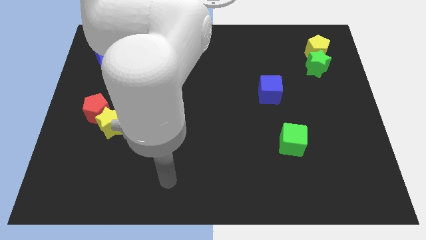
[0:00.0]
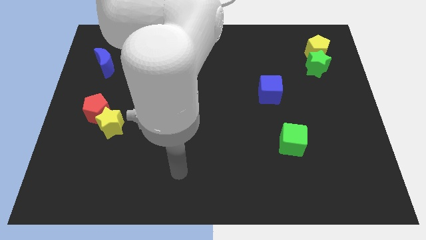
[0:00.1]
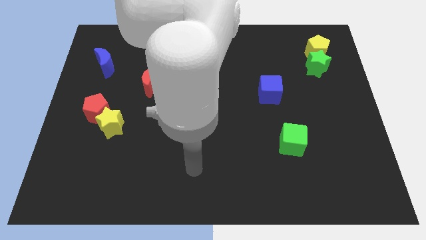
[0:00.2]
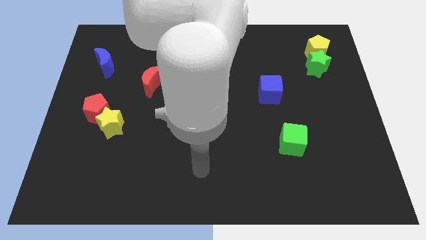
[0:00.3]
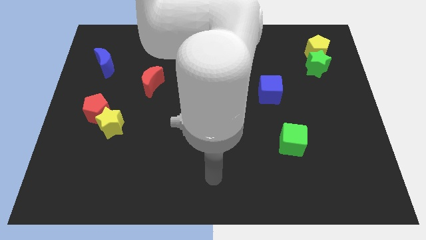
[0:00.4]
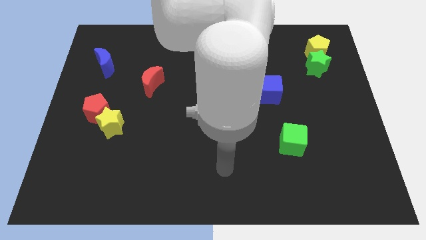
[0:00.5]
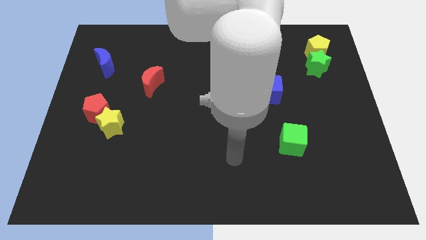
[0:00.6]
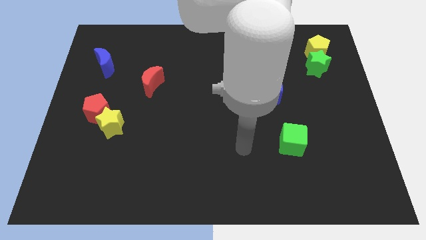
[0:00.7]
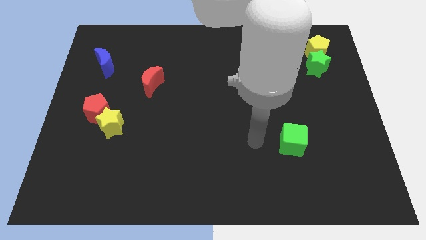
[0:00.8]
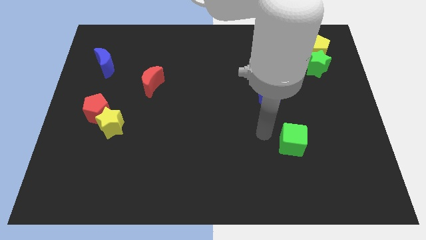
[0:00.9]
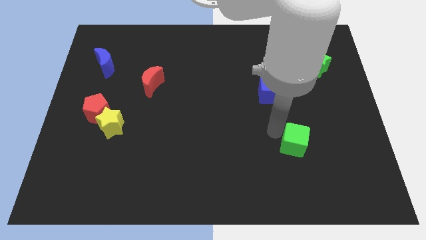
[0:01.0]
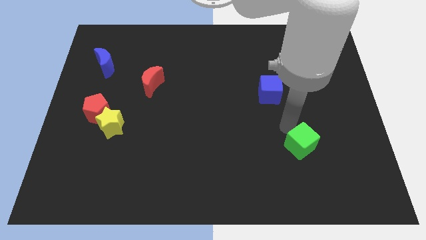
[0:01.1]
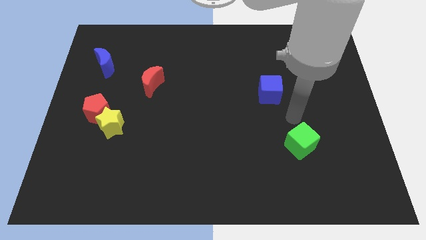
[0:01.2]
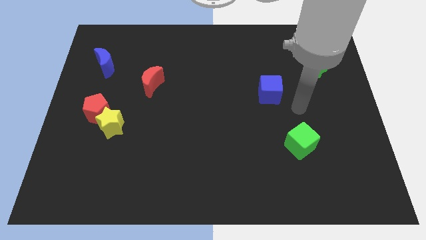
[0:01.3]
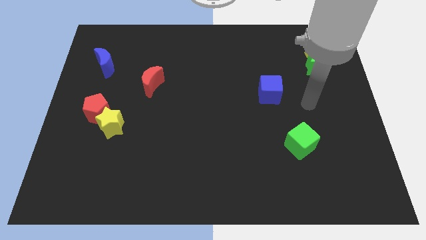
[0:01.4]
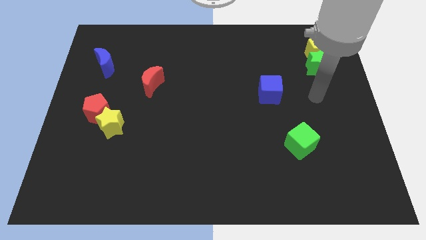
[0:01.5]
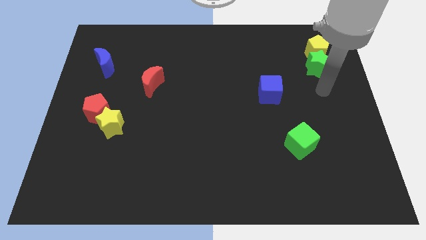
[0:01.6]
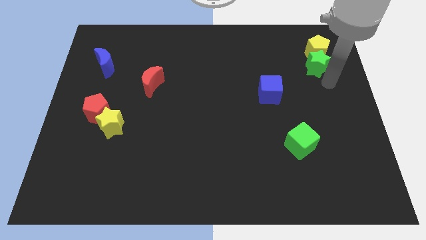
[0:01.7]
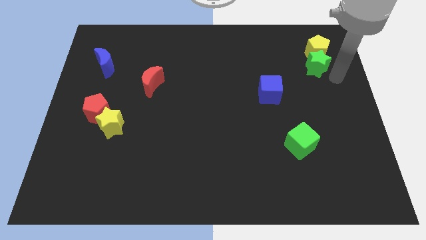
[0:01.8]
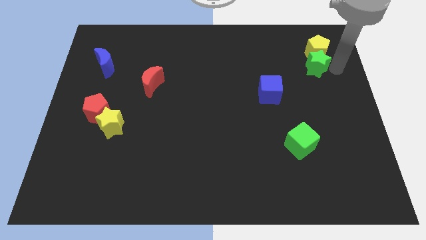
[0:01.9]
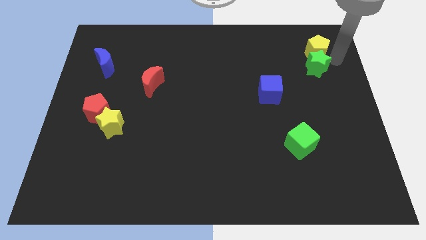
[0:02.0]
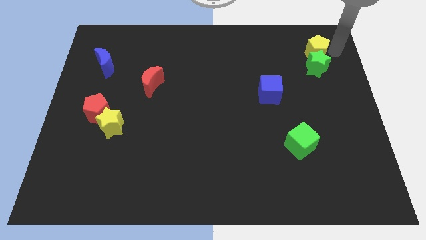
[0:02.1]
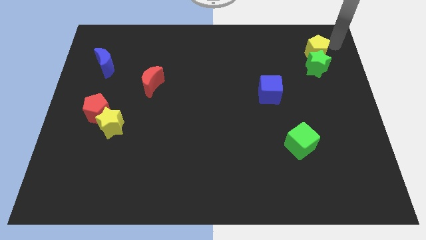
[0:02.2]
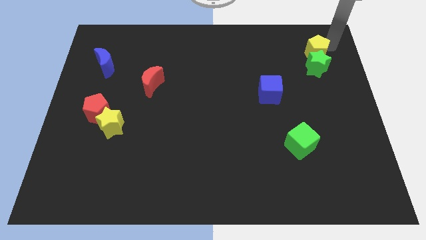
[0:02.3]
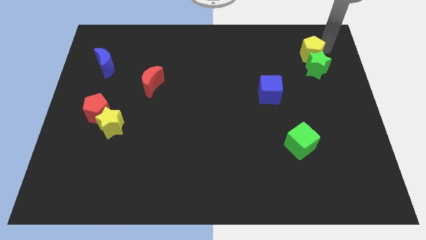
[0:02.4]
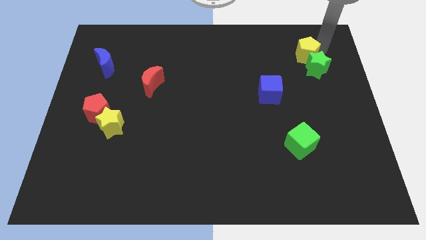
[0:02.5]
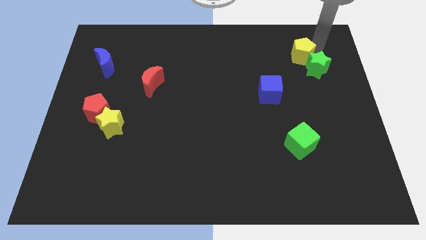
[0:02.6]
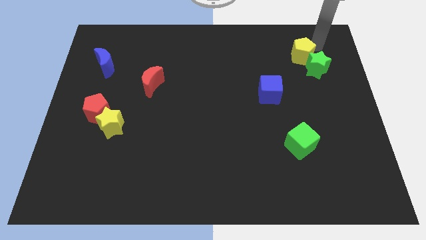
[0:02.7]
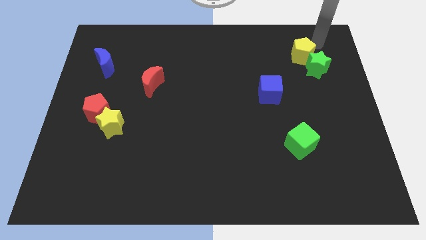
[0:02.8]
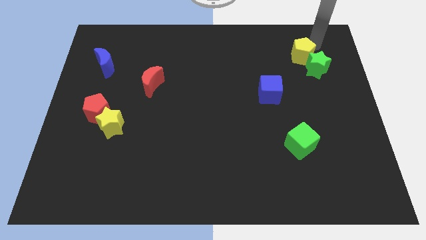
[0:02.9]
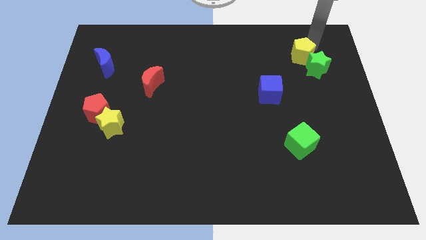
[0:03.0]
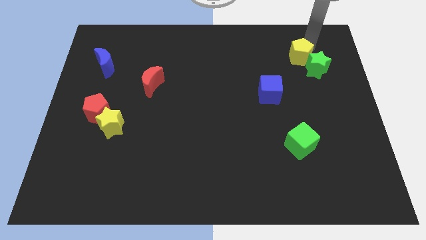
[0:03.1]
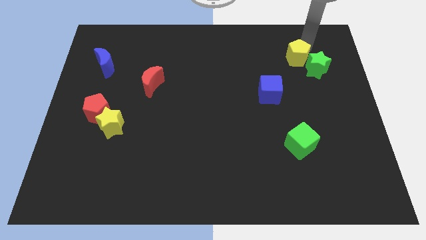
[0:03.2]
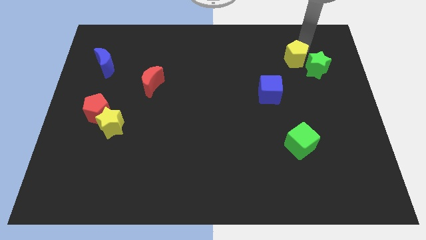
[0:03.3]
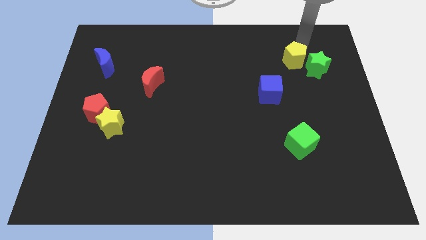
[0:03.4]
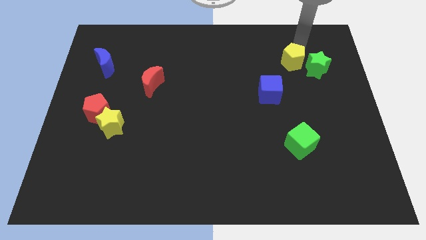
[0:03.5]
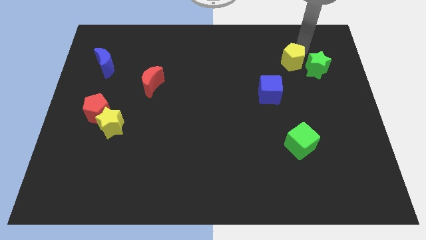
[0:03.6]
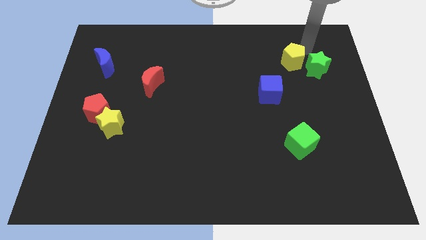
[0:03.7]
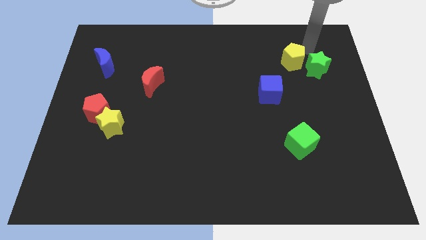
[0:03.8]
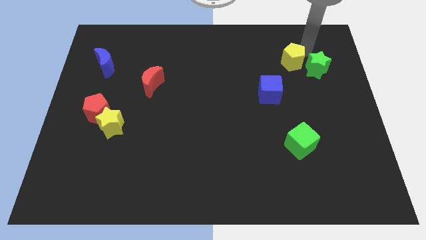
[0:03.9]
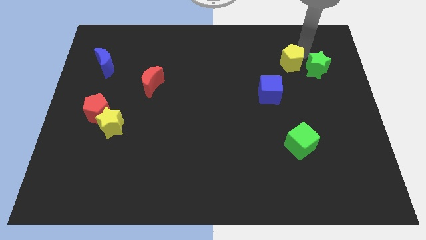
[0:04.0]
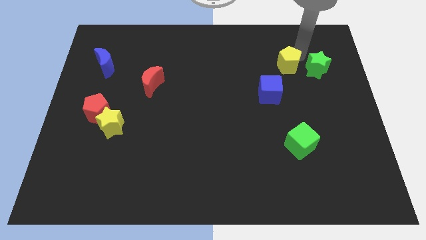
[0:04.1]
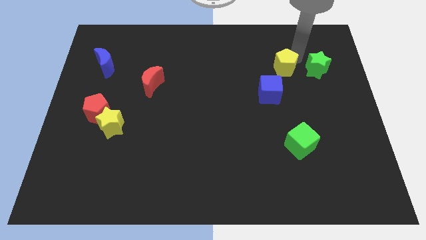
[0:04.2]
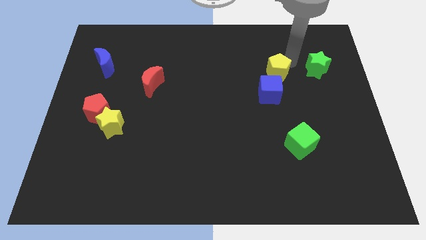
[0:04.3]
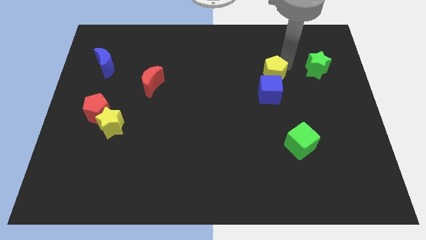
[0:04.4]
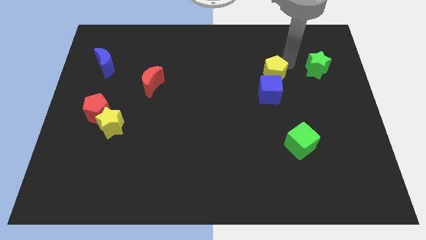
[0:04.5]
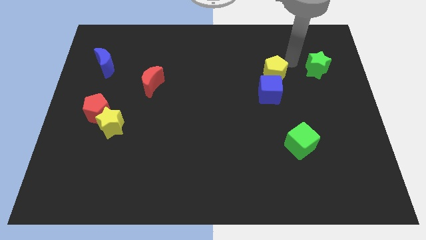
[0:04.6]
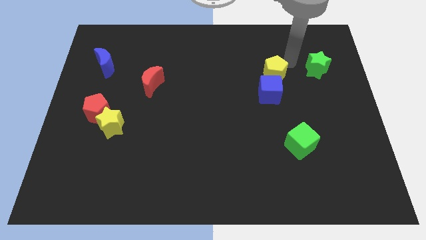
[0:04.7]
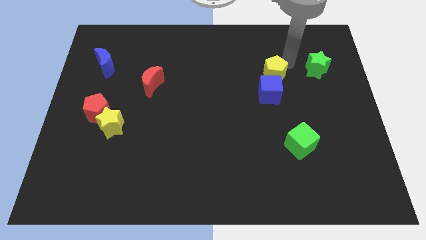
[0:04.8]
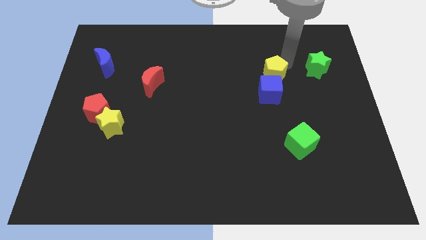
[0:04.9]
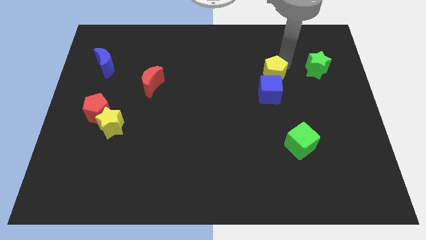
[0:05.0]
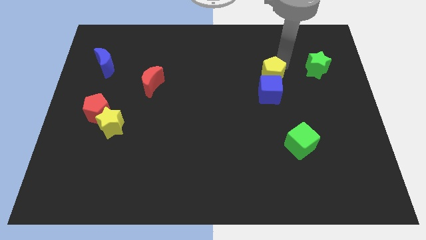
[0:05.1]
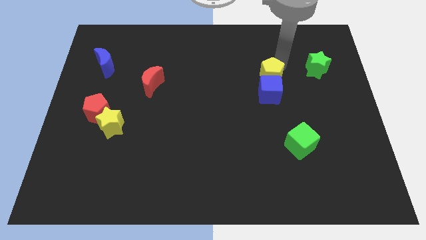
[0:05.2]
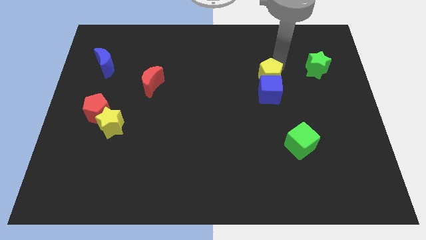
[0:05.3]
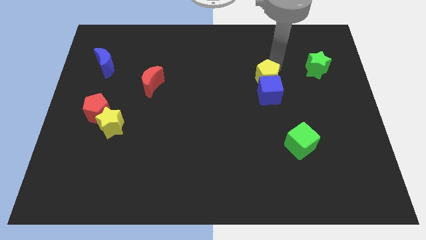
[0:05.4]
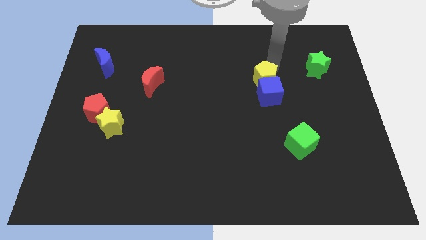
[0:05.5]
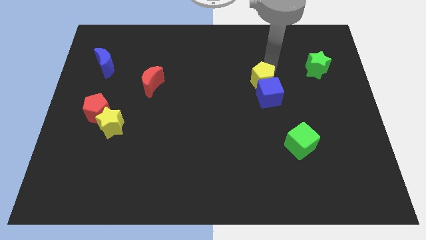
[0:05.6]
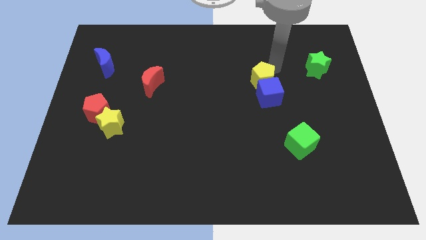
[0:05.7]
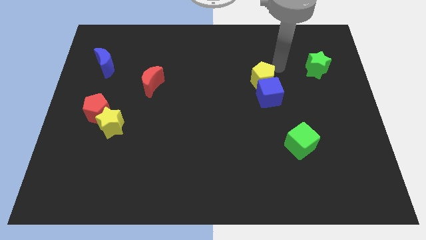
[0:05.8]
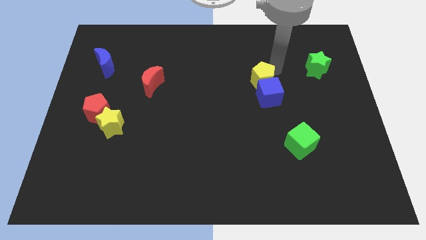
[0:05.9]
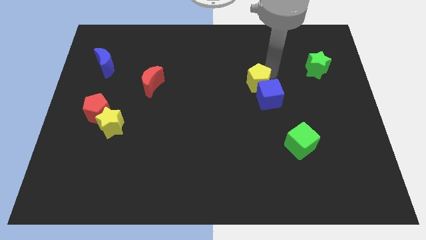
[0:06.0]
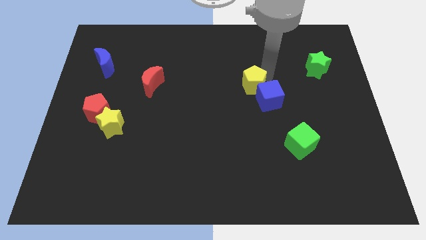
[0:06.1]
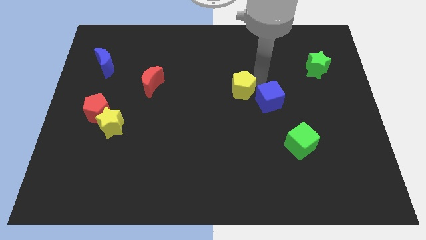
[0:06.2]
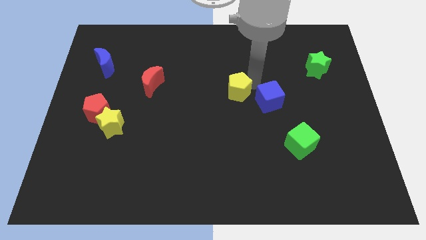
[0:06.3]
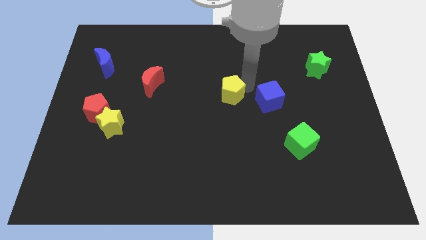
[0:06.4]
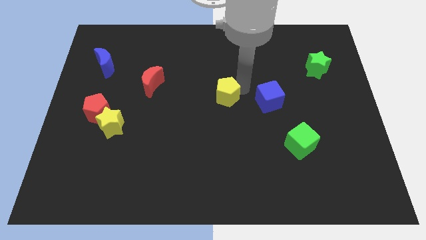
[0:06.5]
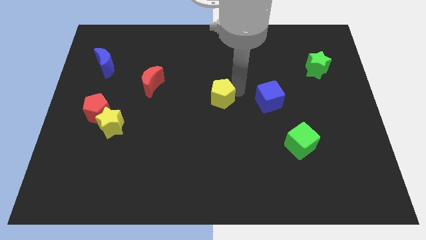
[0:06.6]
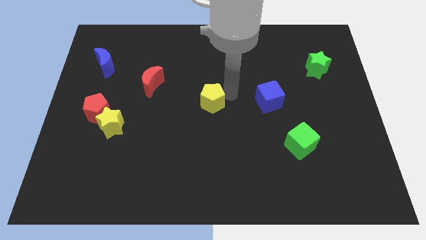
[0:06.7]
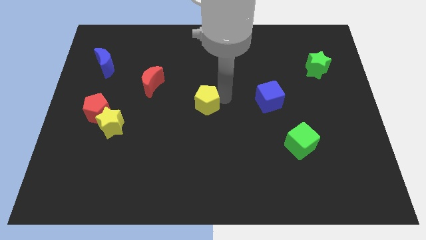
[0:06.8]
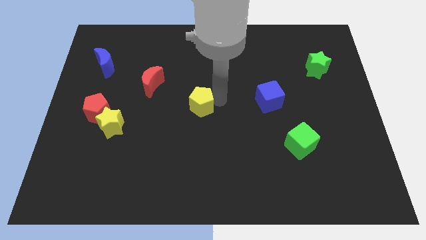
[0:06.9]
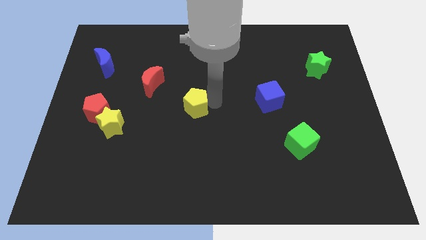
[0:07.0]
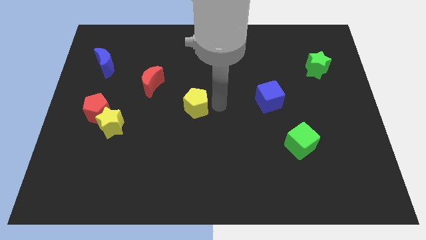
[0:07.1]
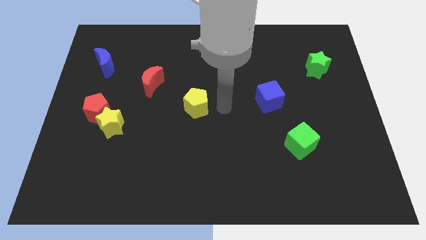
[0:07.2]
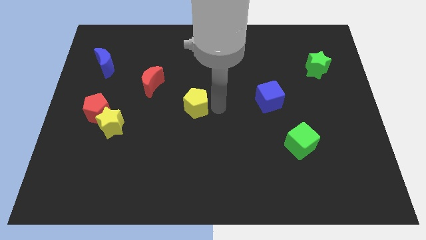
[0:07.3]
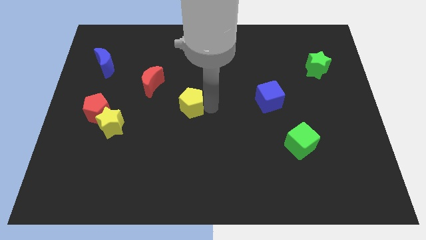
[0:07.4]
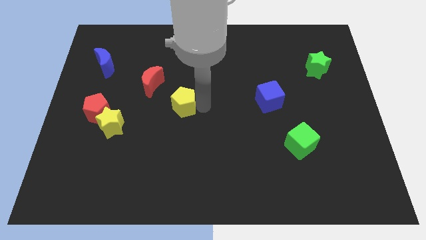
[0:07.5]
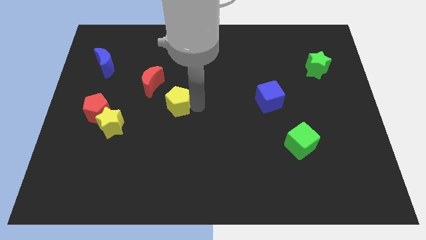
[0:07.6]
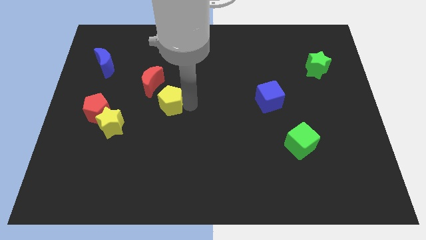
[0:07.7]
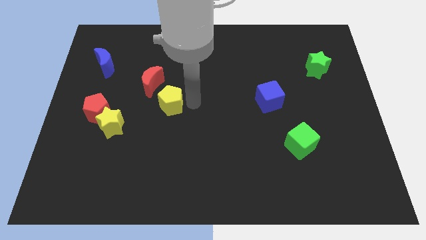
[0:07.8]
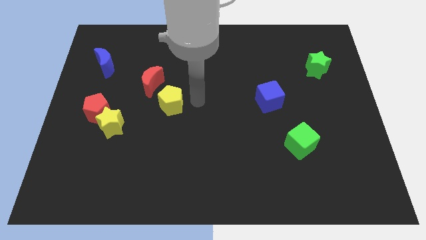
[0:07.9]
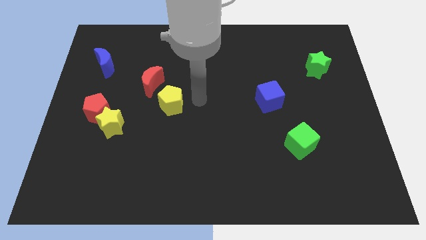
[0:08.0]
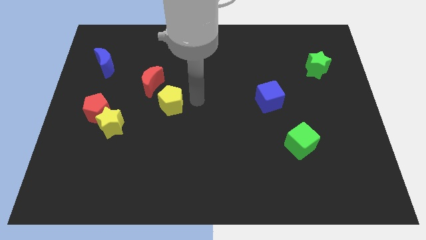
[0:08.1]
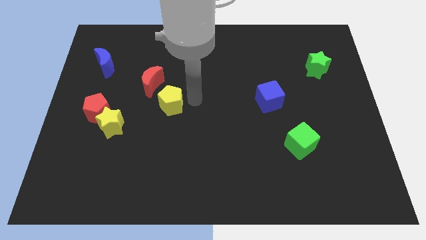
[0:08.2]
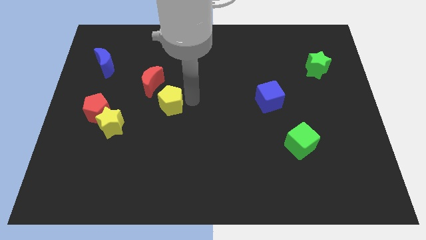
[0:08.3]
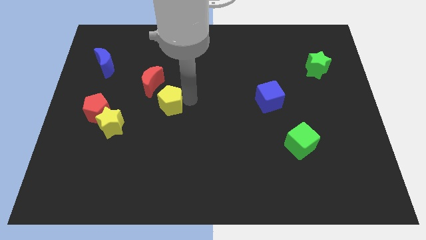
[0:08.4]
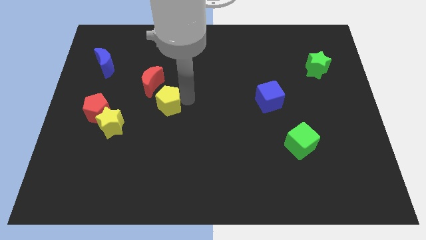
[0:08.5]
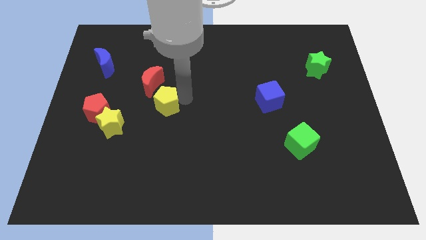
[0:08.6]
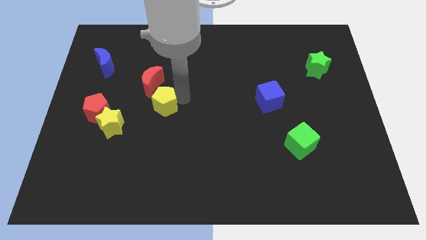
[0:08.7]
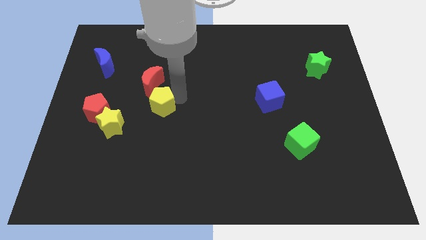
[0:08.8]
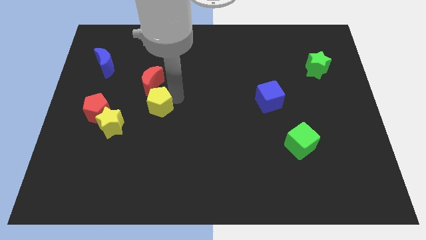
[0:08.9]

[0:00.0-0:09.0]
move the yellow pentagon diagonally up and to the right of the yellow star
